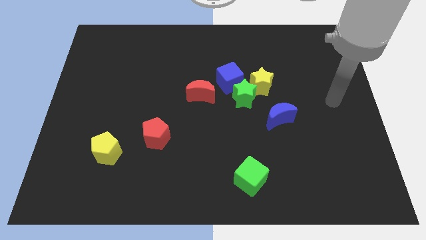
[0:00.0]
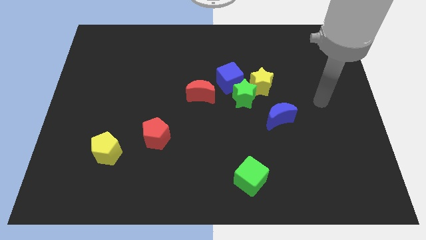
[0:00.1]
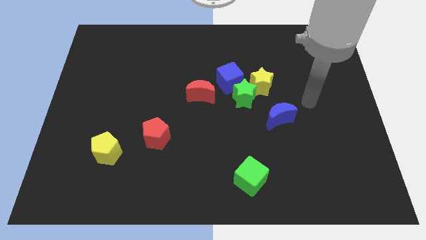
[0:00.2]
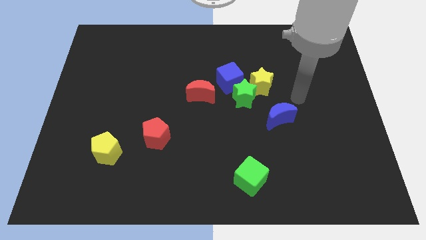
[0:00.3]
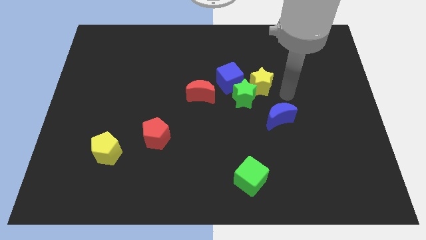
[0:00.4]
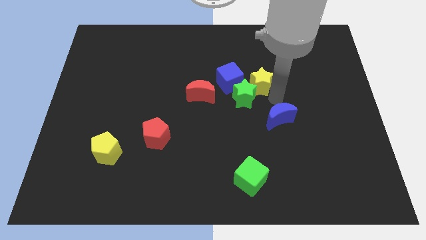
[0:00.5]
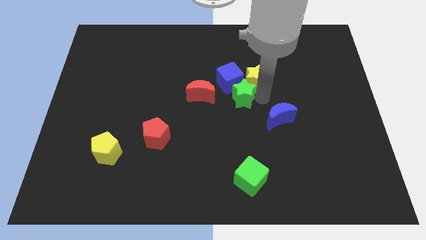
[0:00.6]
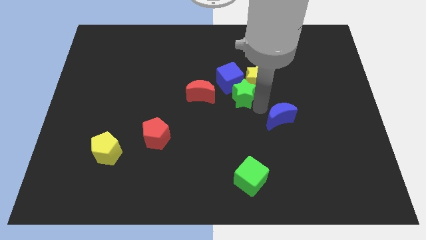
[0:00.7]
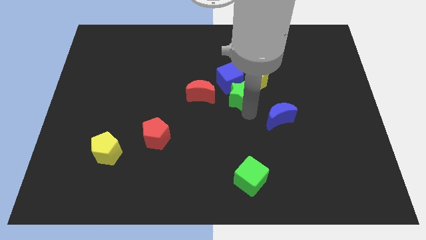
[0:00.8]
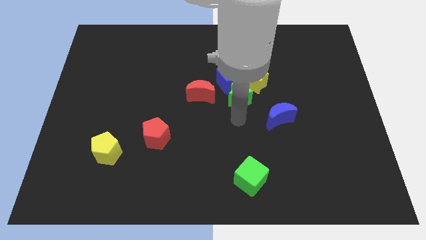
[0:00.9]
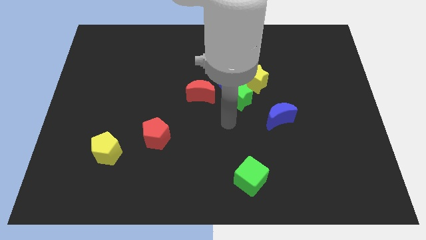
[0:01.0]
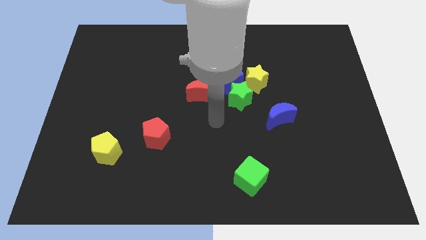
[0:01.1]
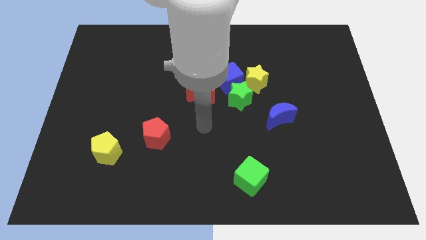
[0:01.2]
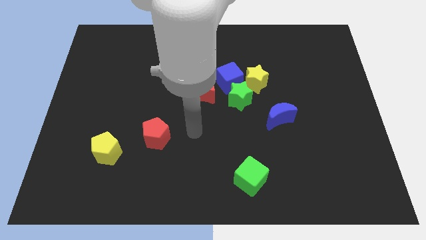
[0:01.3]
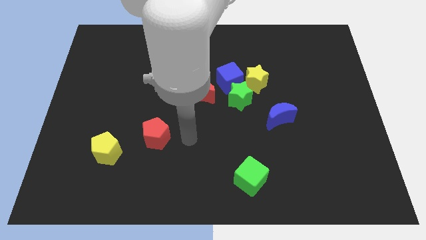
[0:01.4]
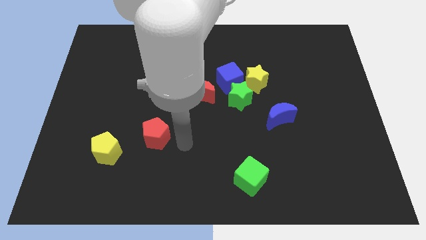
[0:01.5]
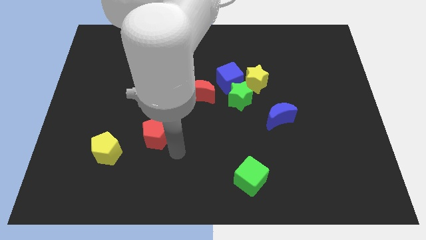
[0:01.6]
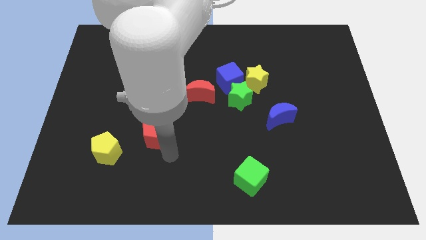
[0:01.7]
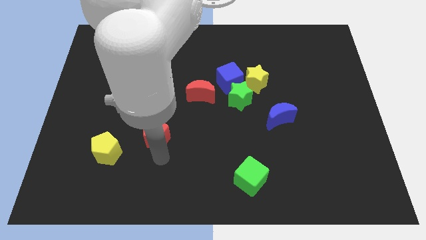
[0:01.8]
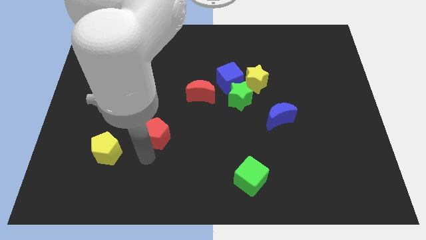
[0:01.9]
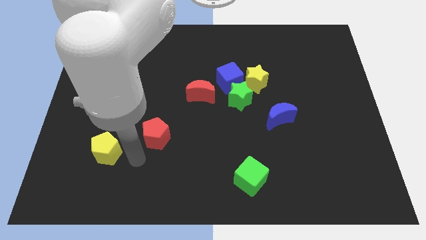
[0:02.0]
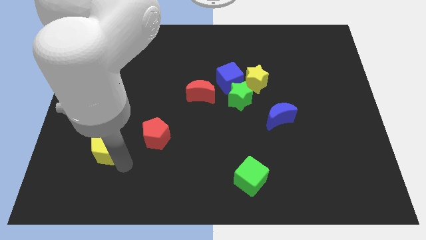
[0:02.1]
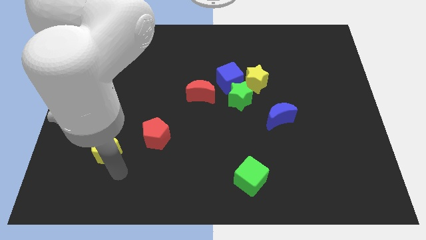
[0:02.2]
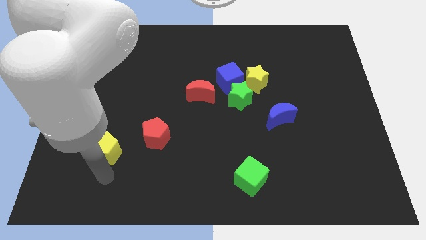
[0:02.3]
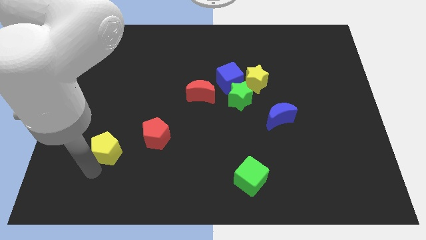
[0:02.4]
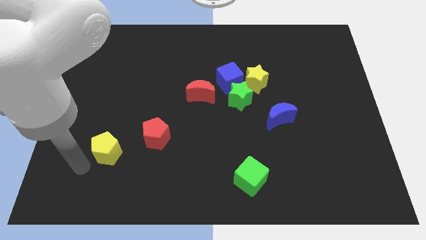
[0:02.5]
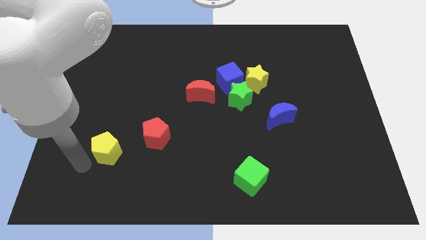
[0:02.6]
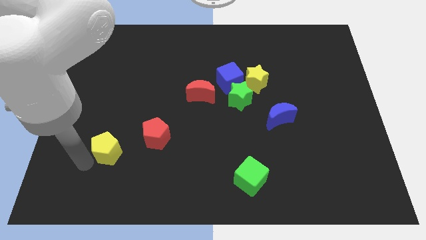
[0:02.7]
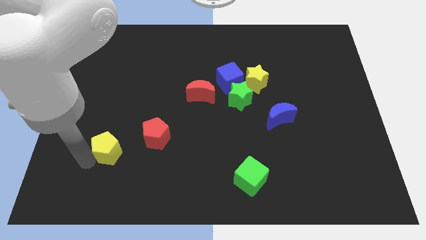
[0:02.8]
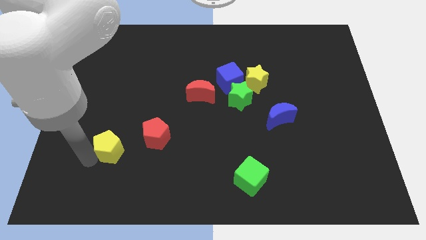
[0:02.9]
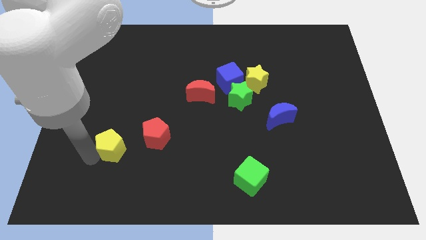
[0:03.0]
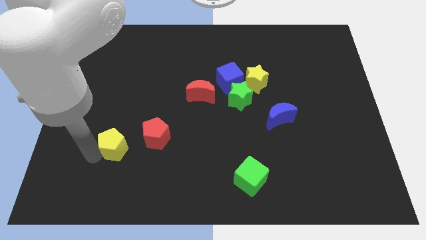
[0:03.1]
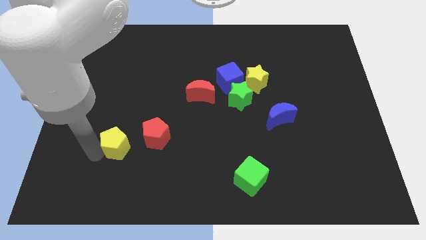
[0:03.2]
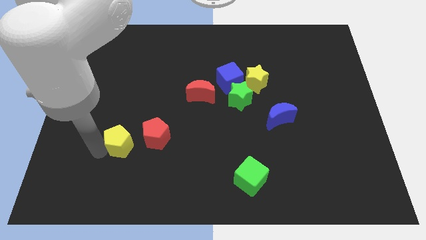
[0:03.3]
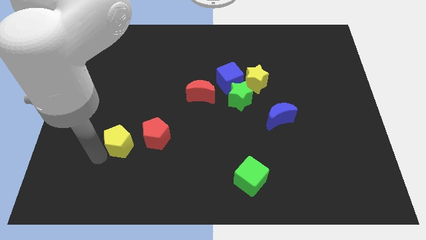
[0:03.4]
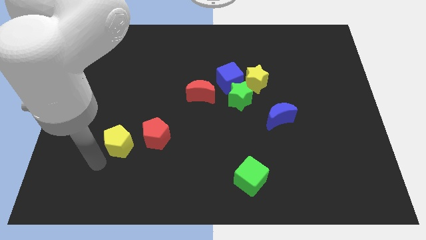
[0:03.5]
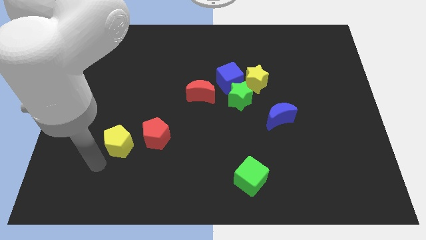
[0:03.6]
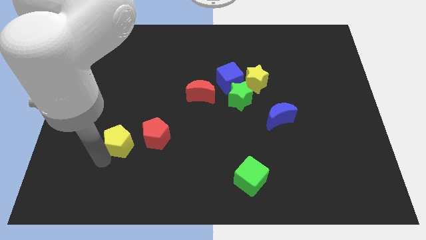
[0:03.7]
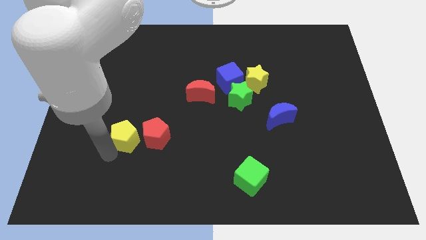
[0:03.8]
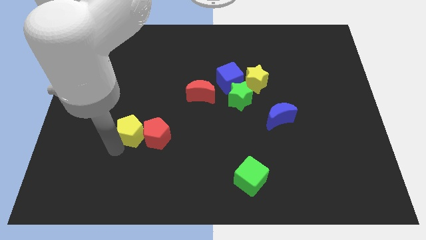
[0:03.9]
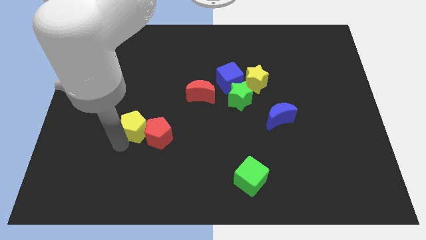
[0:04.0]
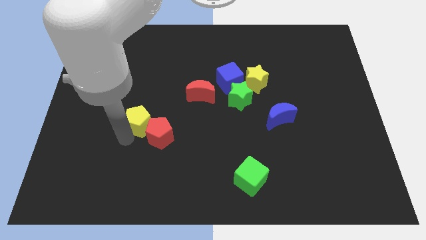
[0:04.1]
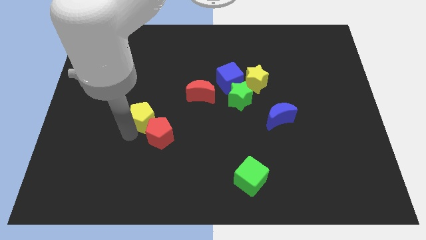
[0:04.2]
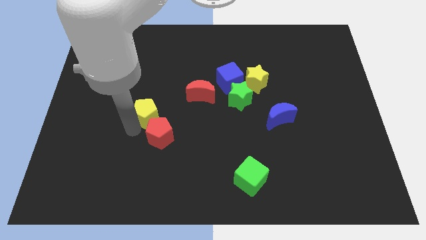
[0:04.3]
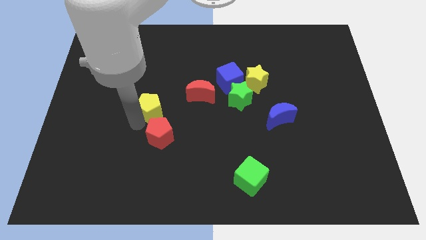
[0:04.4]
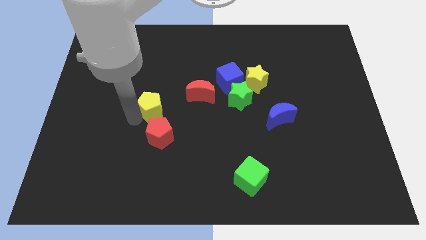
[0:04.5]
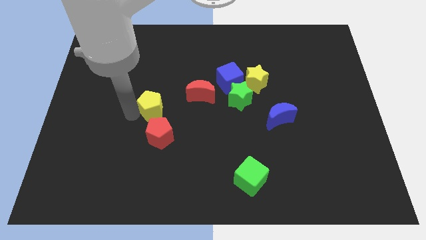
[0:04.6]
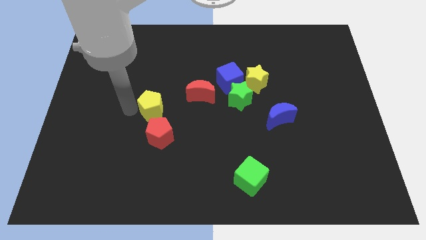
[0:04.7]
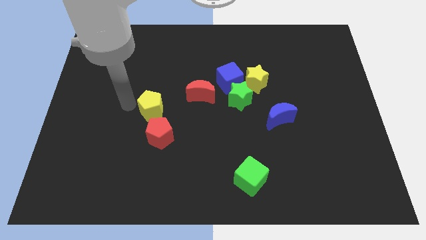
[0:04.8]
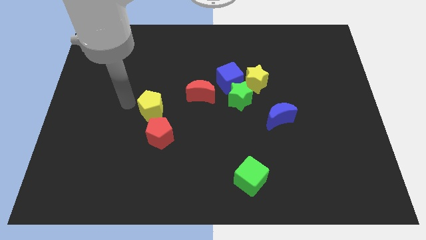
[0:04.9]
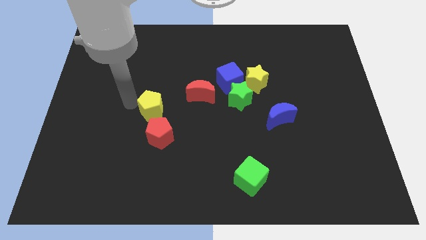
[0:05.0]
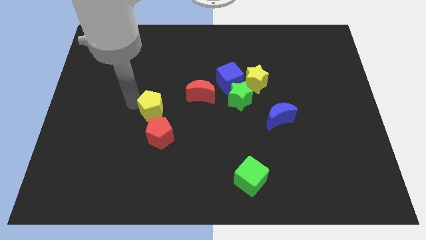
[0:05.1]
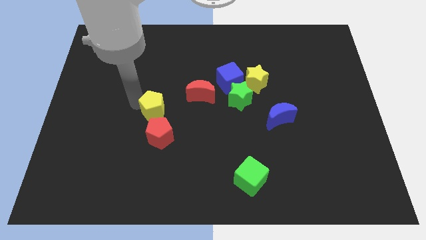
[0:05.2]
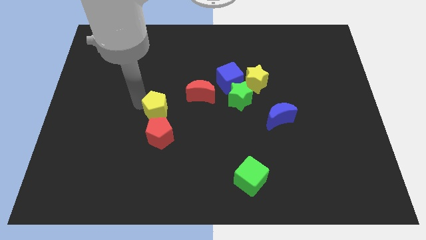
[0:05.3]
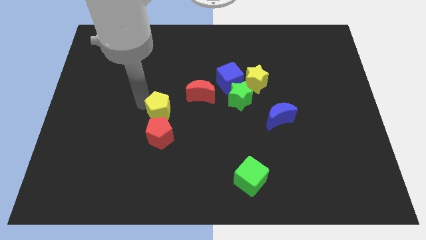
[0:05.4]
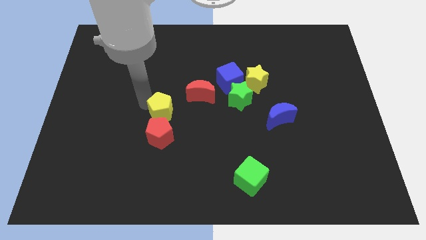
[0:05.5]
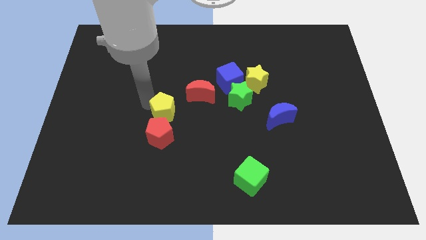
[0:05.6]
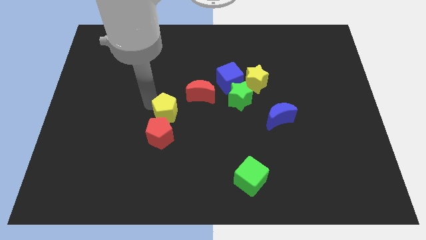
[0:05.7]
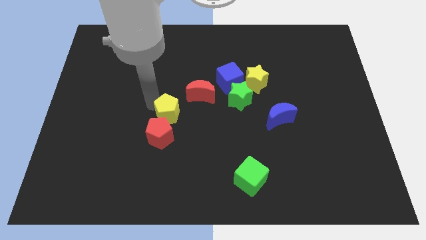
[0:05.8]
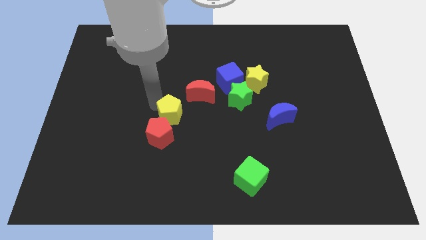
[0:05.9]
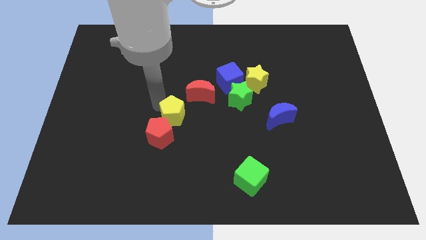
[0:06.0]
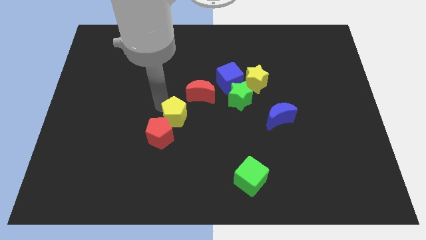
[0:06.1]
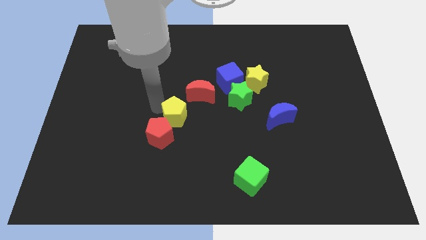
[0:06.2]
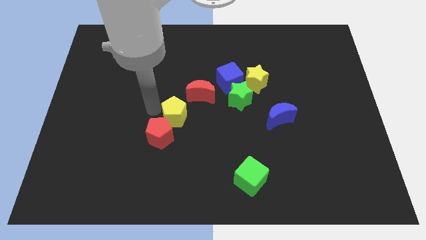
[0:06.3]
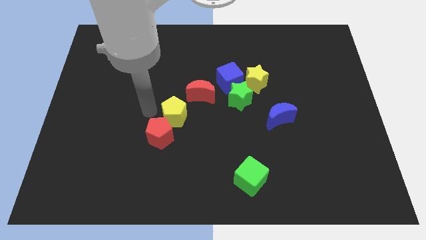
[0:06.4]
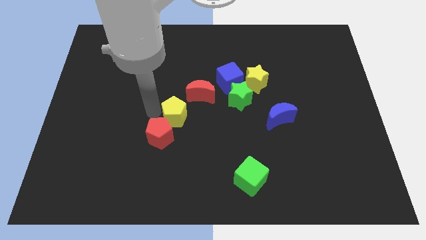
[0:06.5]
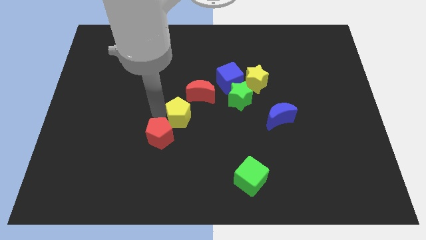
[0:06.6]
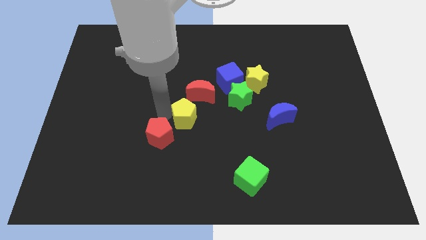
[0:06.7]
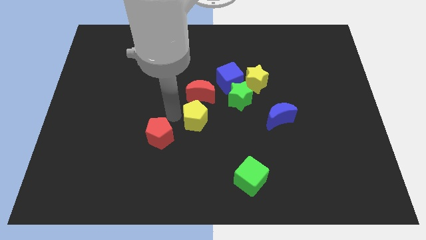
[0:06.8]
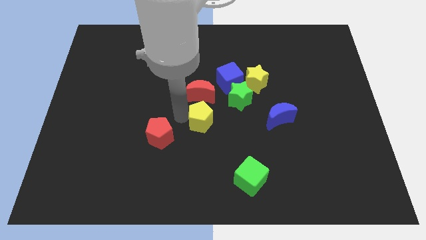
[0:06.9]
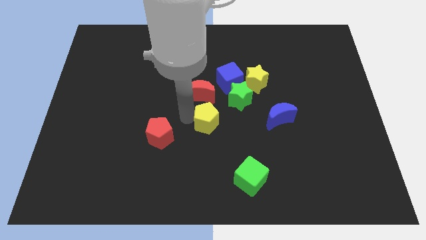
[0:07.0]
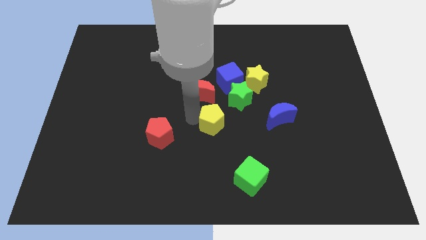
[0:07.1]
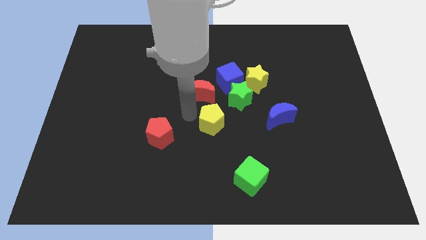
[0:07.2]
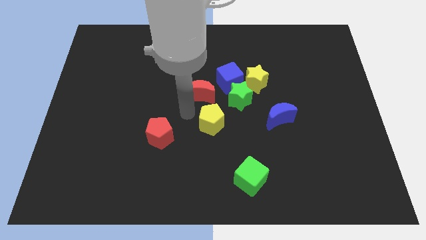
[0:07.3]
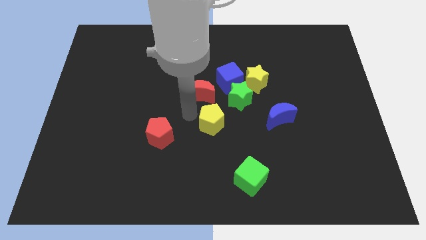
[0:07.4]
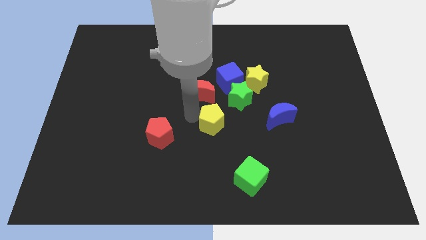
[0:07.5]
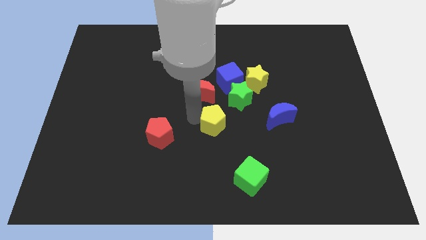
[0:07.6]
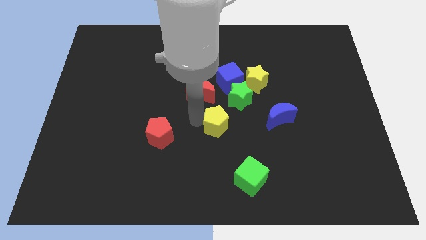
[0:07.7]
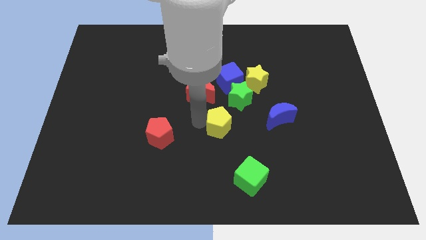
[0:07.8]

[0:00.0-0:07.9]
put the yellow pentagon below the green star
